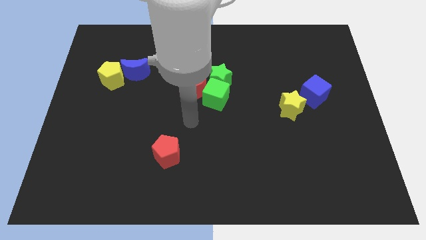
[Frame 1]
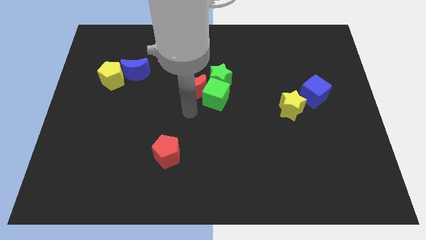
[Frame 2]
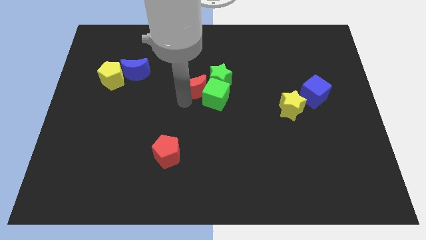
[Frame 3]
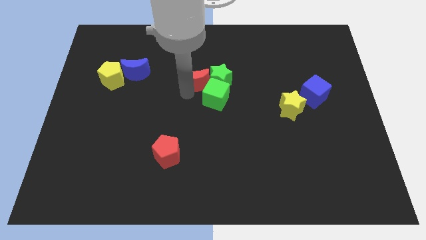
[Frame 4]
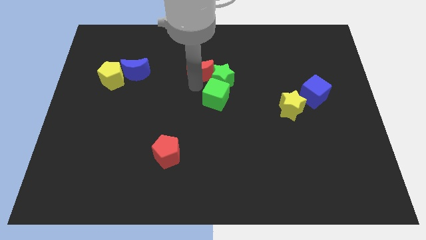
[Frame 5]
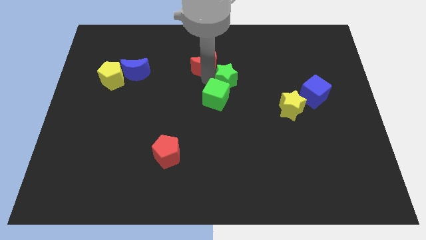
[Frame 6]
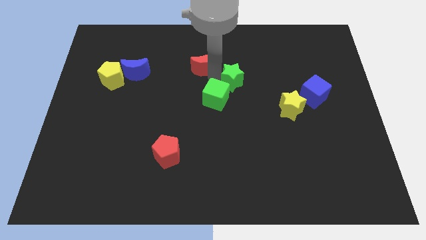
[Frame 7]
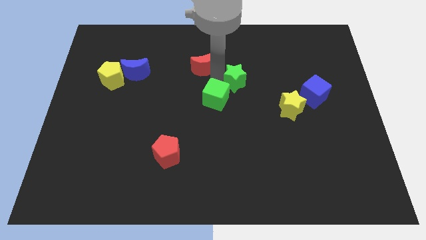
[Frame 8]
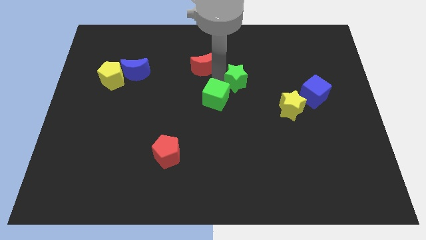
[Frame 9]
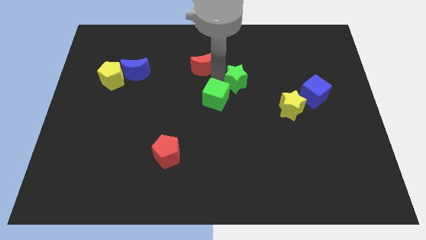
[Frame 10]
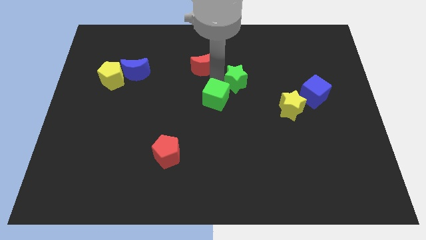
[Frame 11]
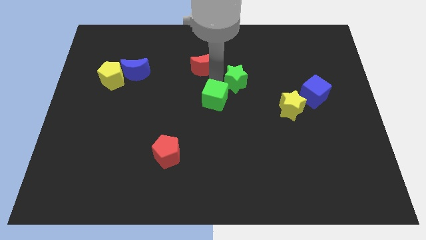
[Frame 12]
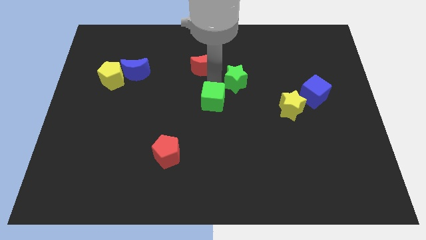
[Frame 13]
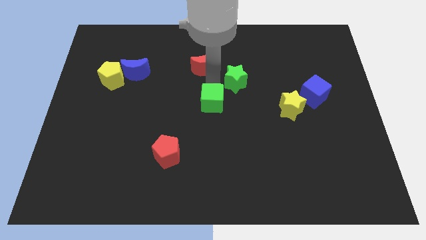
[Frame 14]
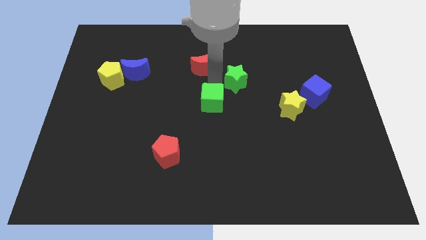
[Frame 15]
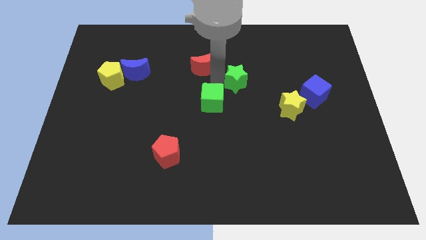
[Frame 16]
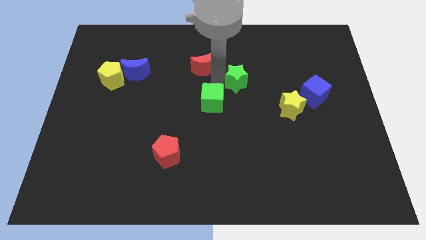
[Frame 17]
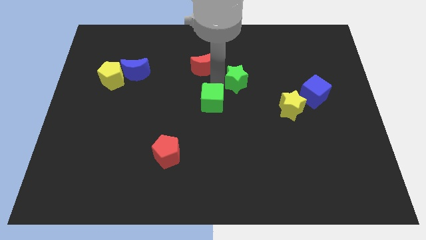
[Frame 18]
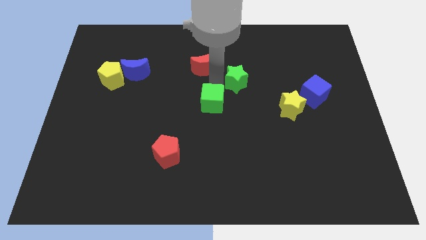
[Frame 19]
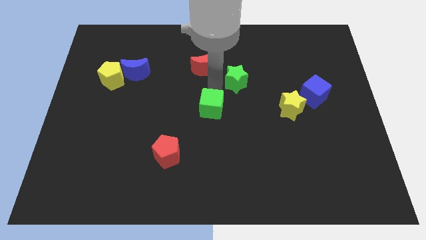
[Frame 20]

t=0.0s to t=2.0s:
pull the green cube apart from the green star and red moon

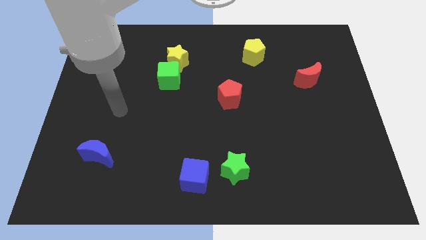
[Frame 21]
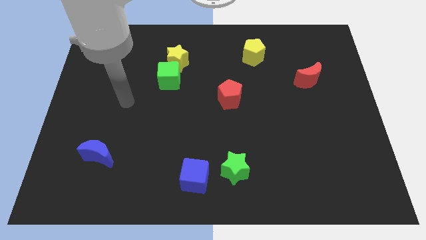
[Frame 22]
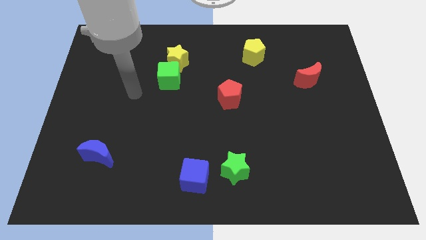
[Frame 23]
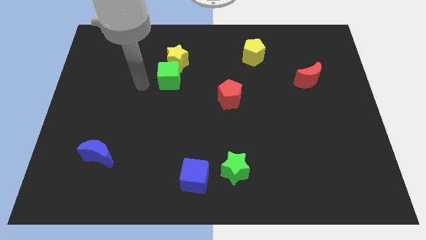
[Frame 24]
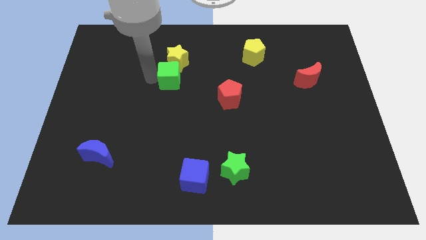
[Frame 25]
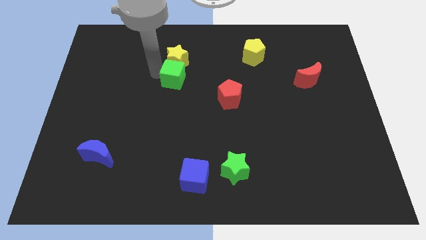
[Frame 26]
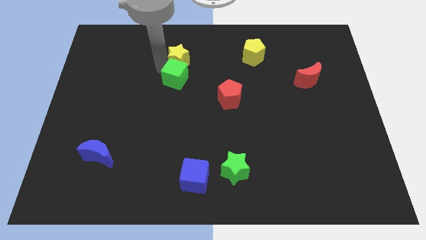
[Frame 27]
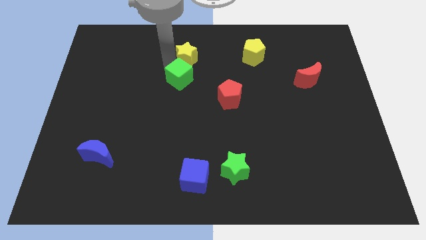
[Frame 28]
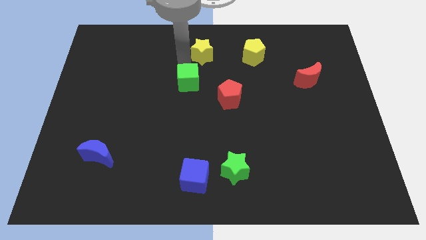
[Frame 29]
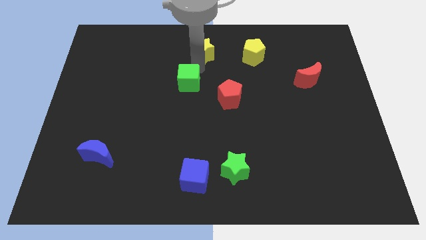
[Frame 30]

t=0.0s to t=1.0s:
pull the green cube apart from the yellow star

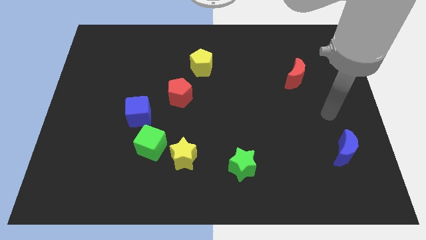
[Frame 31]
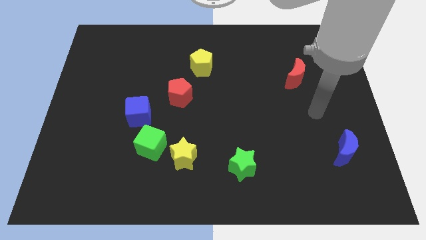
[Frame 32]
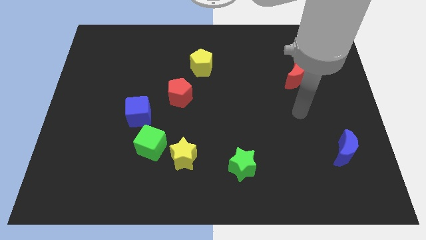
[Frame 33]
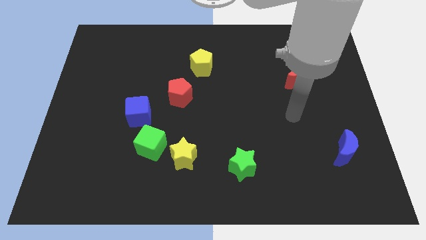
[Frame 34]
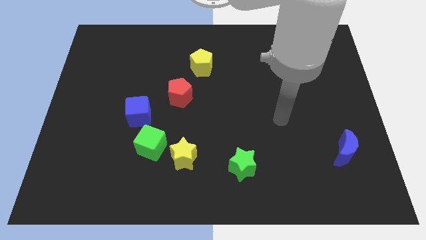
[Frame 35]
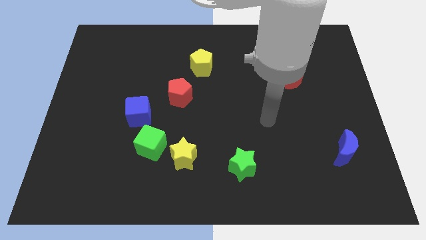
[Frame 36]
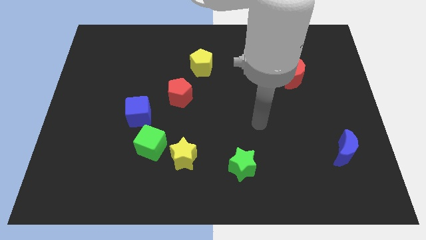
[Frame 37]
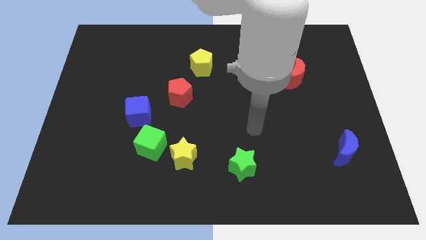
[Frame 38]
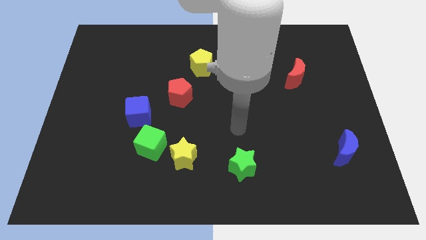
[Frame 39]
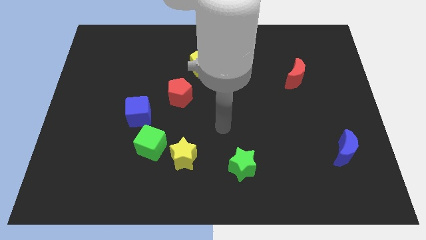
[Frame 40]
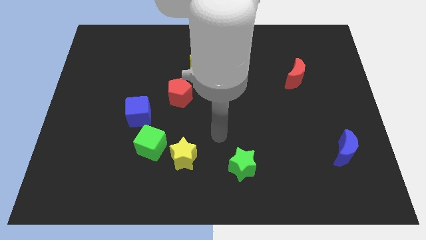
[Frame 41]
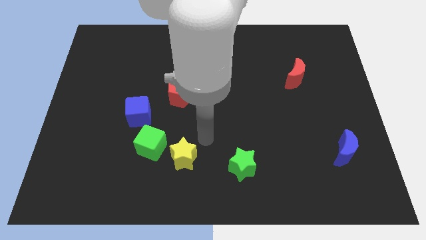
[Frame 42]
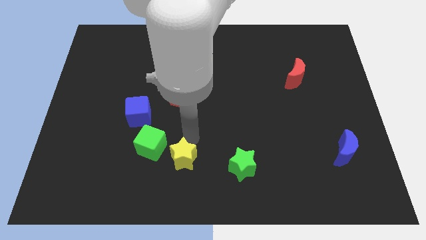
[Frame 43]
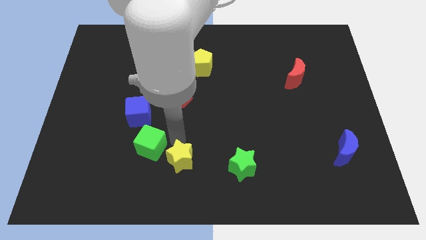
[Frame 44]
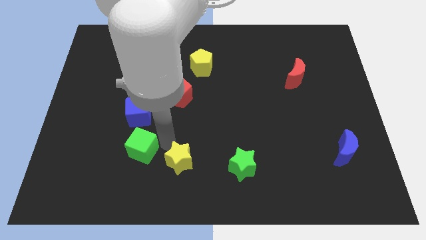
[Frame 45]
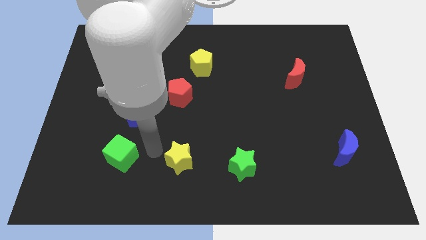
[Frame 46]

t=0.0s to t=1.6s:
pull the yellow star apart from the green cube

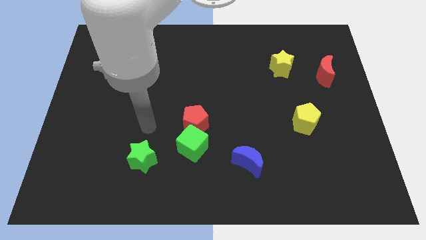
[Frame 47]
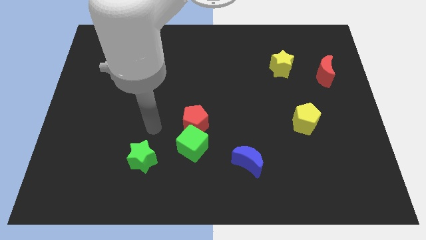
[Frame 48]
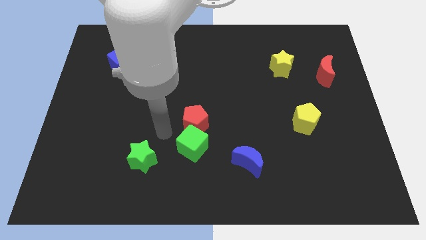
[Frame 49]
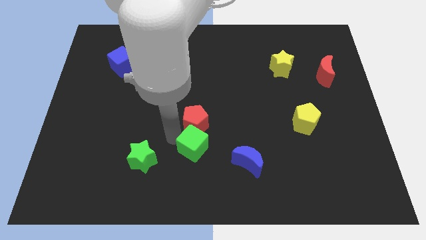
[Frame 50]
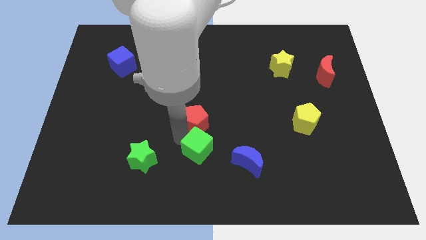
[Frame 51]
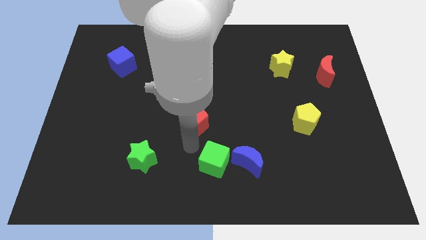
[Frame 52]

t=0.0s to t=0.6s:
separate the red pentagon from the green cube

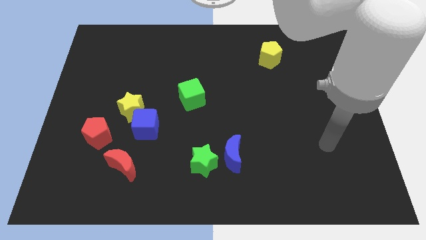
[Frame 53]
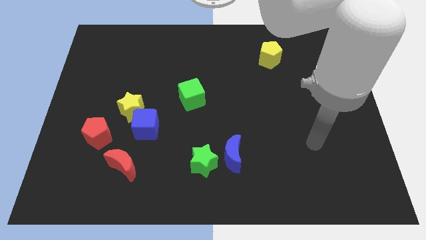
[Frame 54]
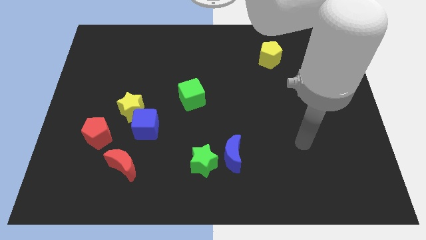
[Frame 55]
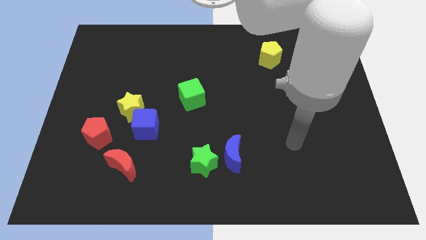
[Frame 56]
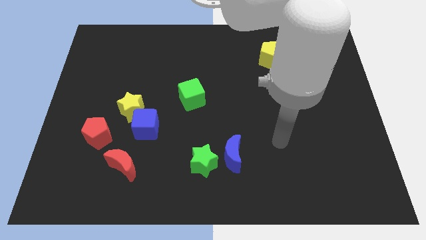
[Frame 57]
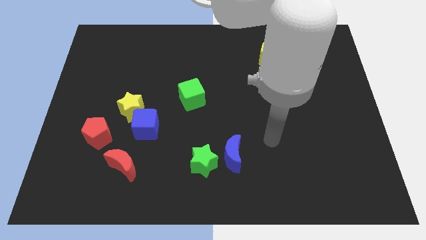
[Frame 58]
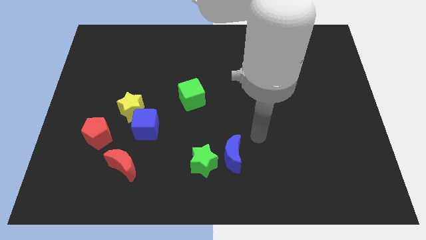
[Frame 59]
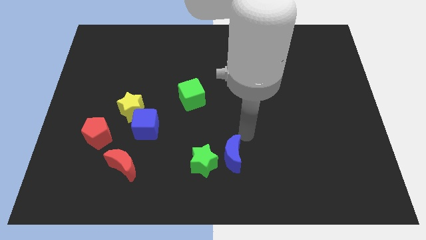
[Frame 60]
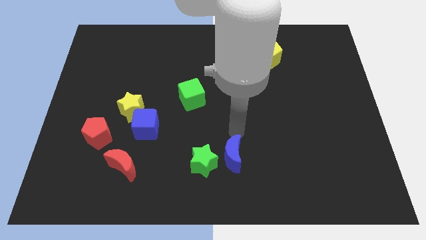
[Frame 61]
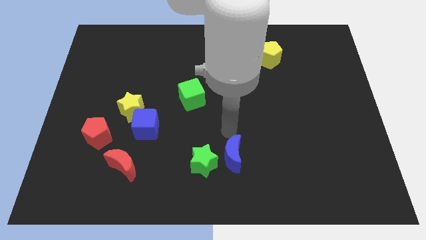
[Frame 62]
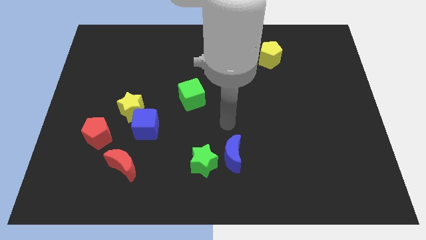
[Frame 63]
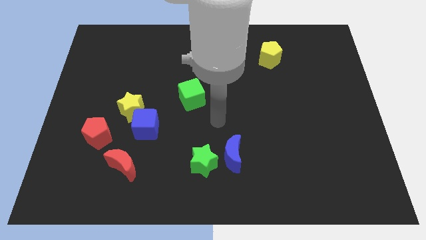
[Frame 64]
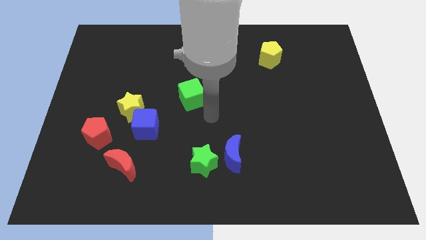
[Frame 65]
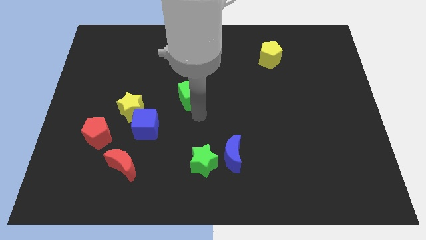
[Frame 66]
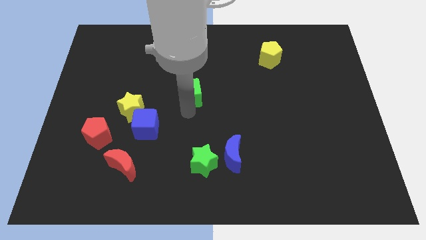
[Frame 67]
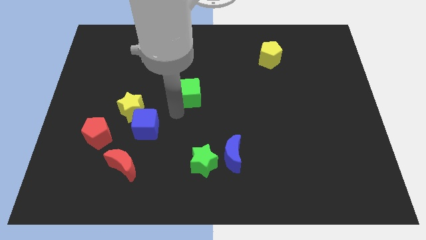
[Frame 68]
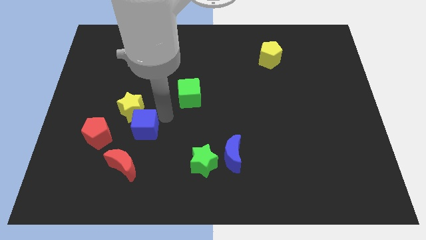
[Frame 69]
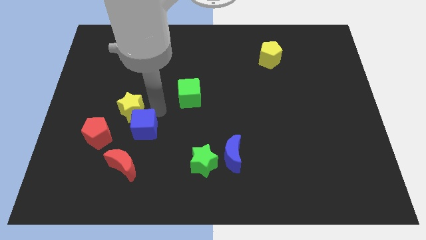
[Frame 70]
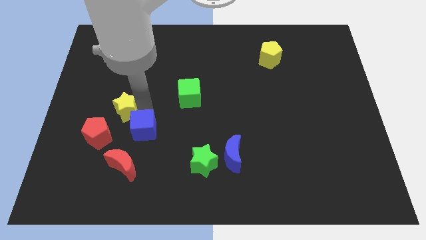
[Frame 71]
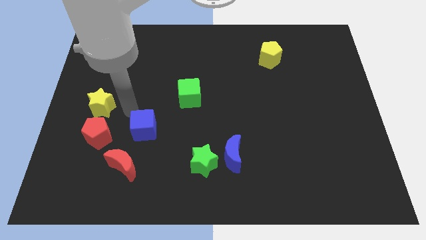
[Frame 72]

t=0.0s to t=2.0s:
separate the blue cube from the yellow star

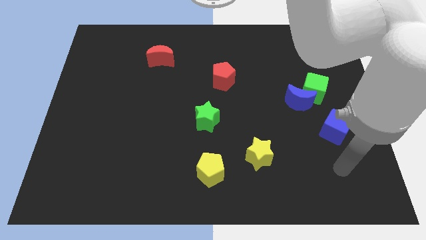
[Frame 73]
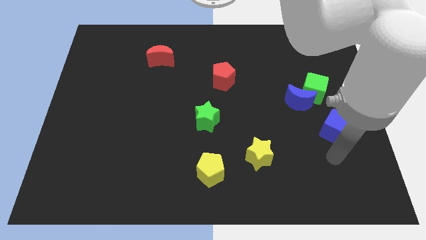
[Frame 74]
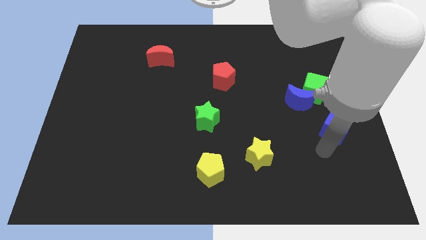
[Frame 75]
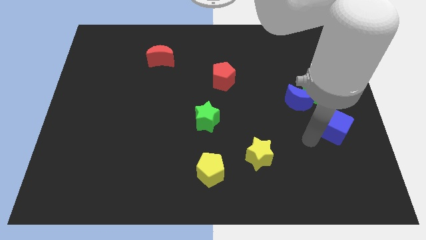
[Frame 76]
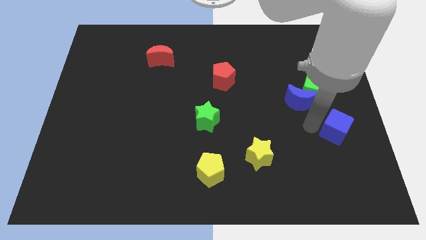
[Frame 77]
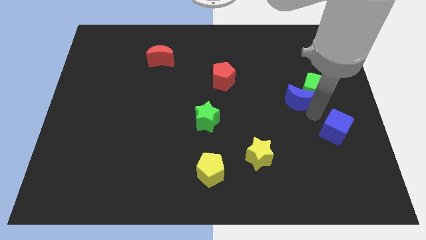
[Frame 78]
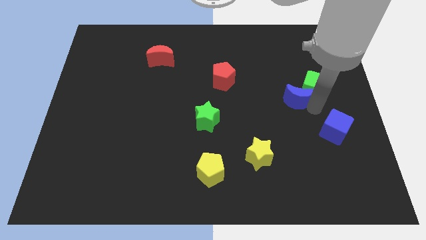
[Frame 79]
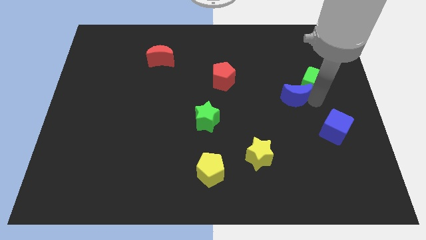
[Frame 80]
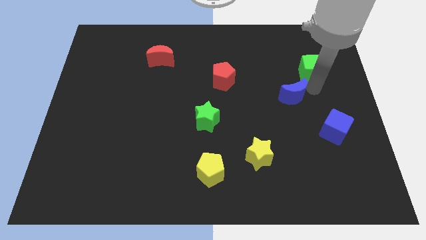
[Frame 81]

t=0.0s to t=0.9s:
separate the blue moon from the green cube

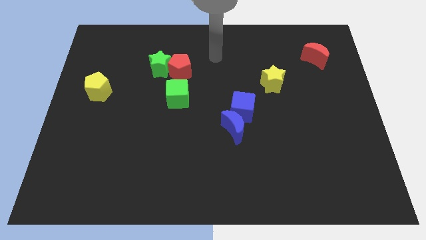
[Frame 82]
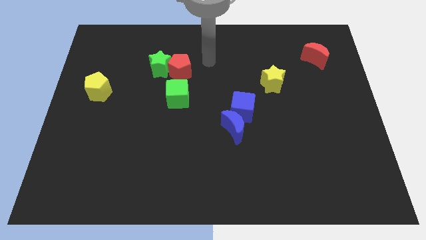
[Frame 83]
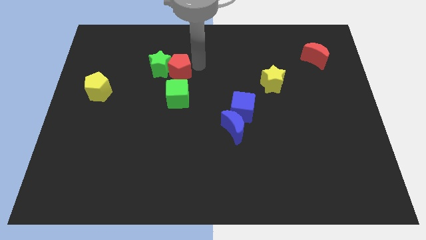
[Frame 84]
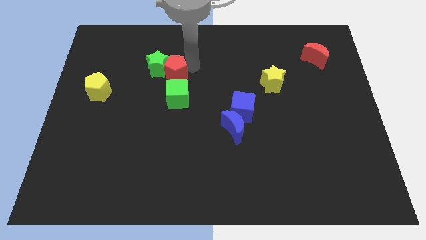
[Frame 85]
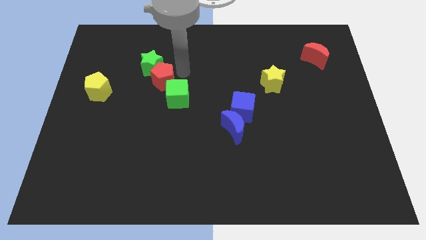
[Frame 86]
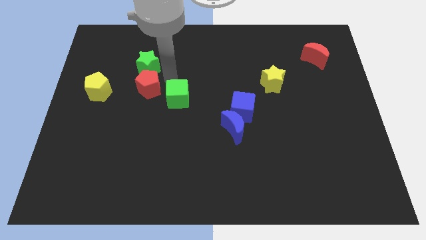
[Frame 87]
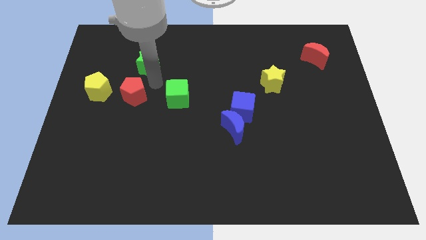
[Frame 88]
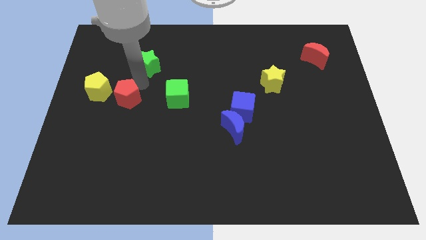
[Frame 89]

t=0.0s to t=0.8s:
separate the green star from the red pentagon

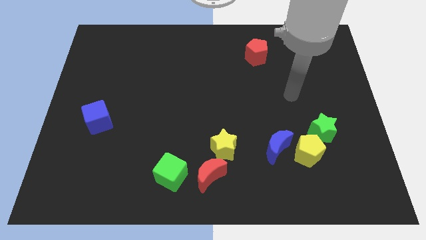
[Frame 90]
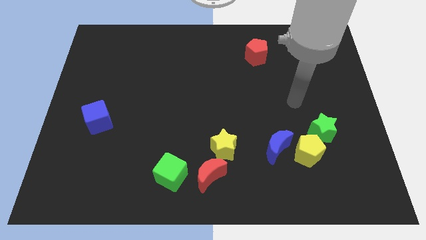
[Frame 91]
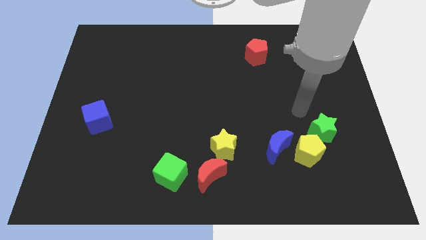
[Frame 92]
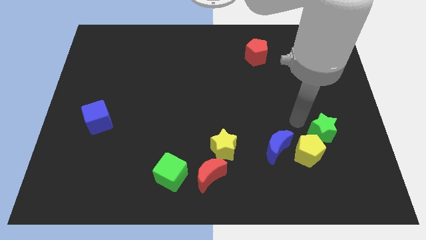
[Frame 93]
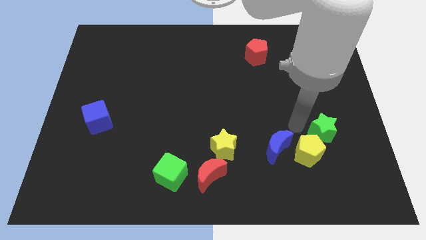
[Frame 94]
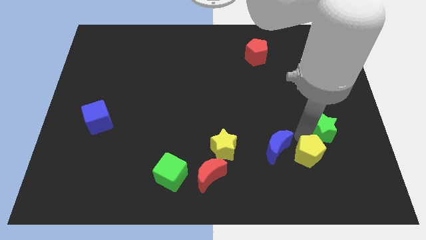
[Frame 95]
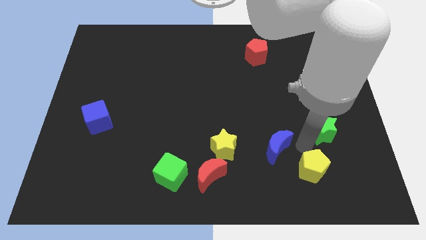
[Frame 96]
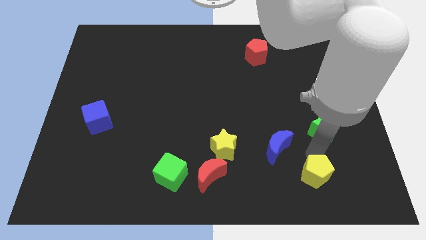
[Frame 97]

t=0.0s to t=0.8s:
pull the green star apart from the yellow pentagon
